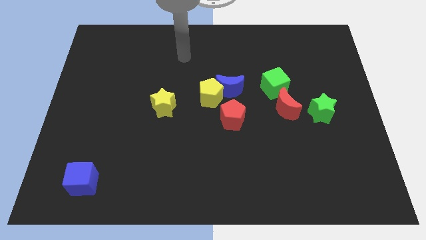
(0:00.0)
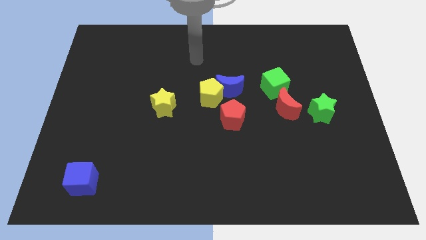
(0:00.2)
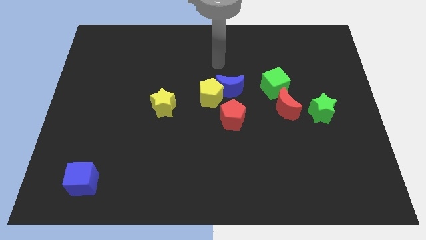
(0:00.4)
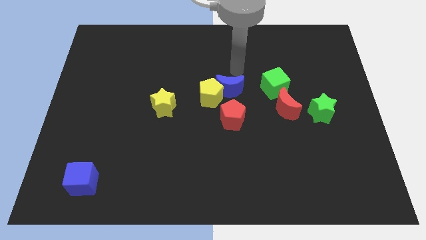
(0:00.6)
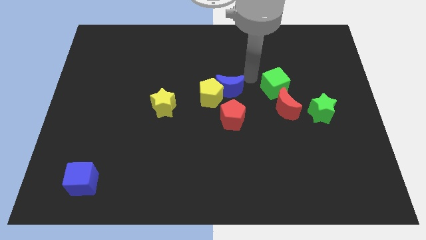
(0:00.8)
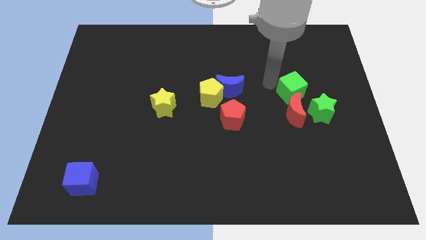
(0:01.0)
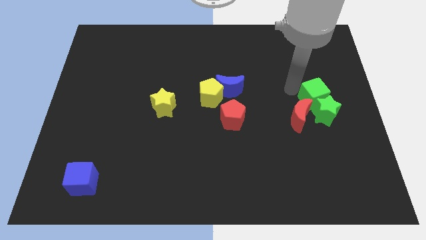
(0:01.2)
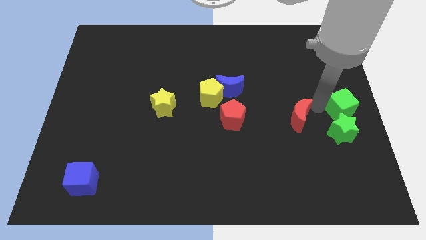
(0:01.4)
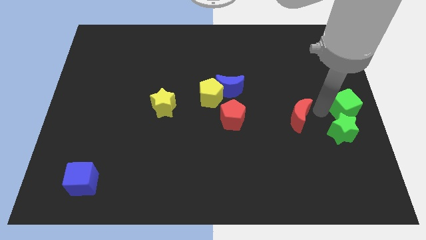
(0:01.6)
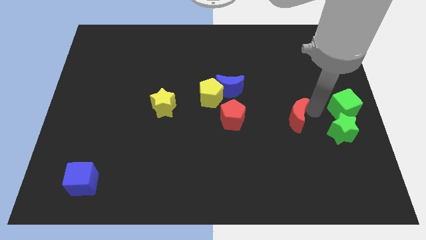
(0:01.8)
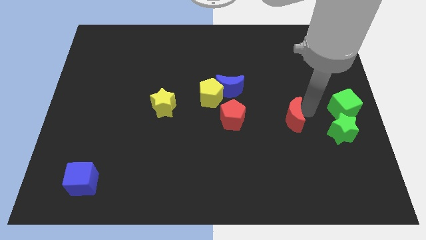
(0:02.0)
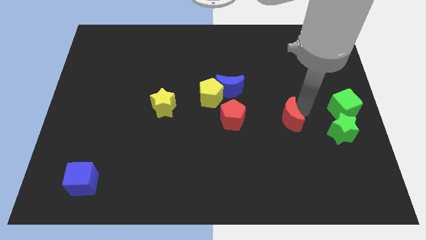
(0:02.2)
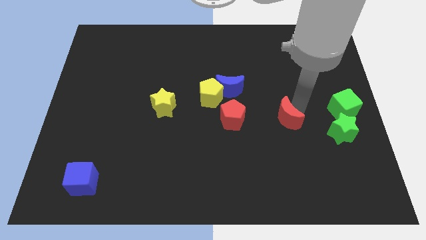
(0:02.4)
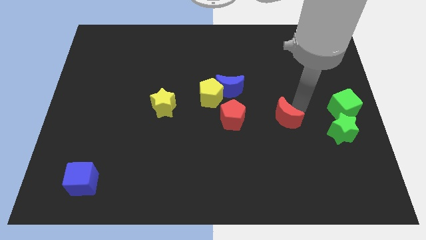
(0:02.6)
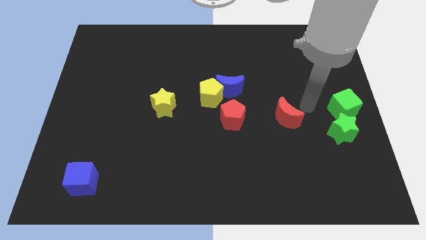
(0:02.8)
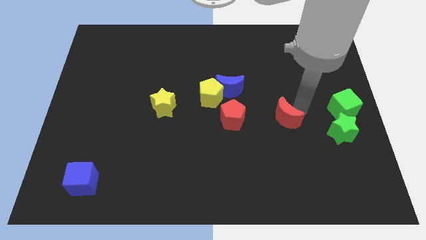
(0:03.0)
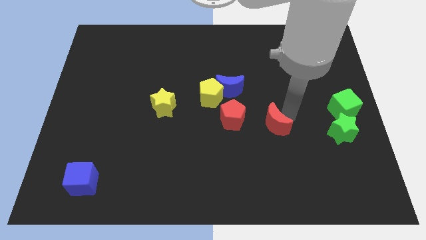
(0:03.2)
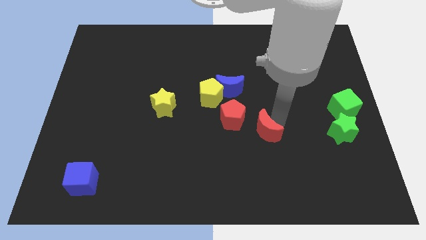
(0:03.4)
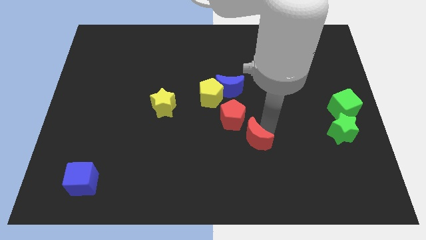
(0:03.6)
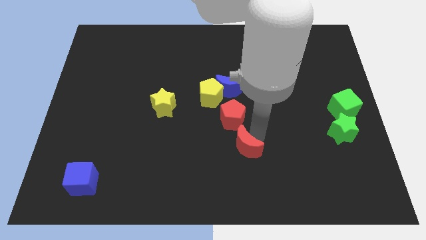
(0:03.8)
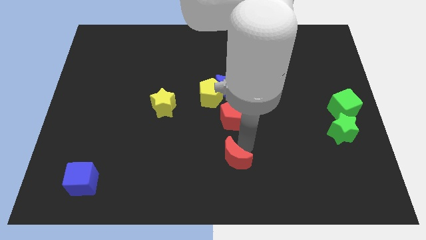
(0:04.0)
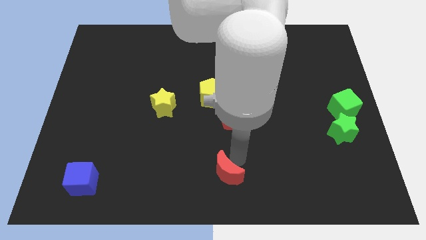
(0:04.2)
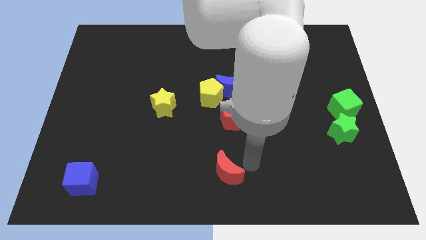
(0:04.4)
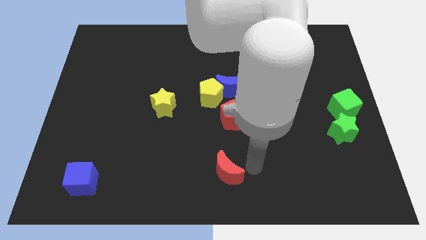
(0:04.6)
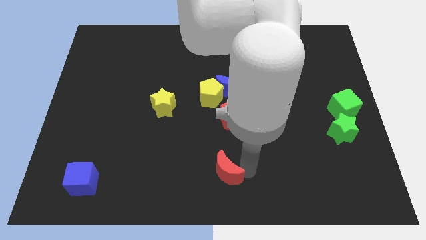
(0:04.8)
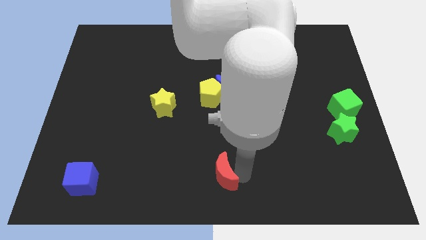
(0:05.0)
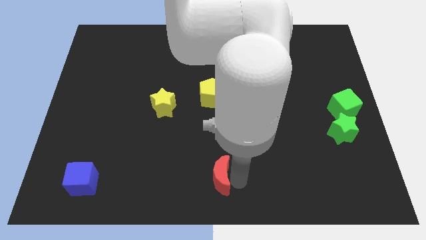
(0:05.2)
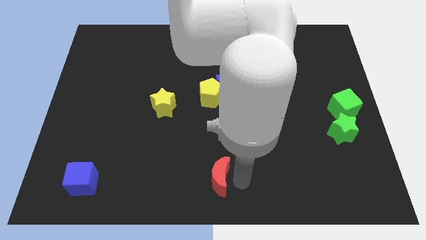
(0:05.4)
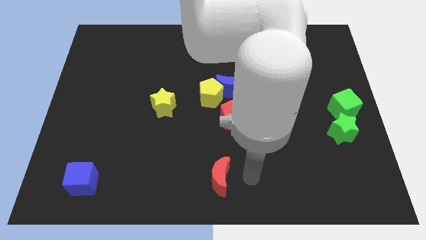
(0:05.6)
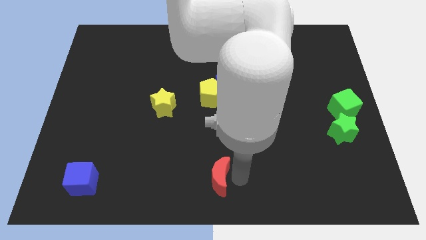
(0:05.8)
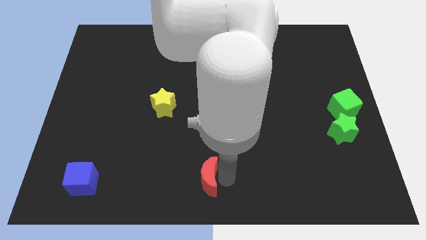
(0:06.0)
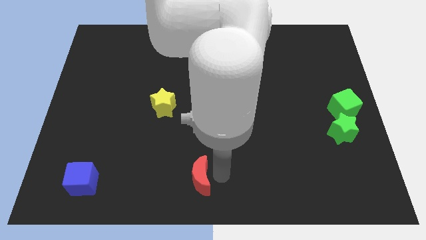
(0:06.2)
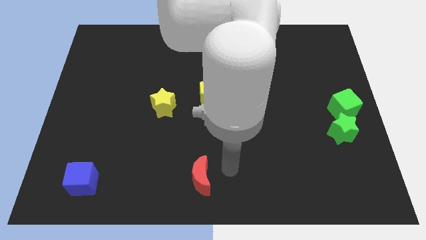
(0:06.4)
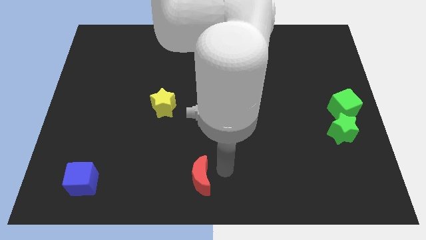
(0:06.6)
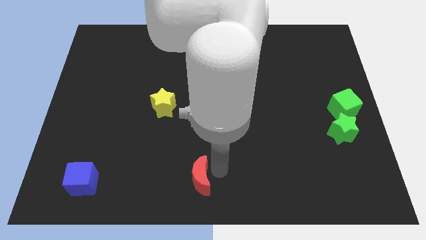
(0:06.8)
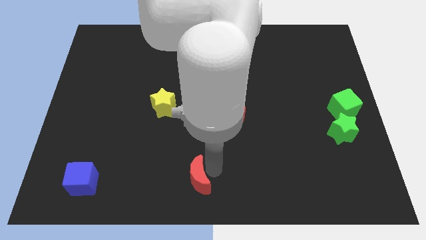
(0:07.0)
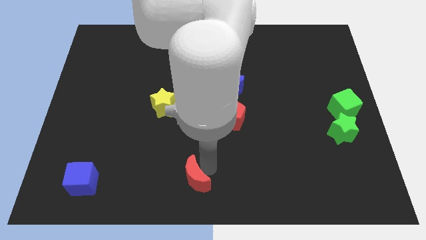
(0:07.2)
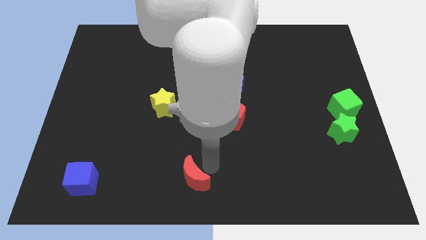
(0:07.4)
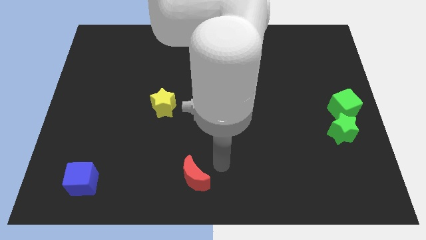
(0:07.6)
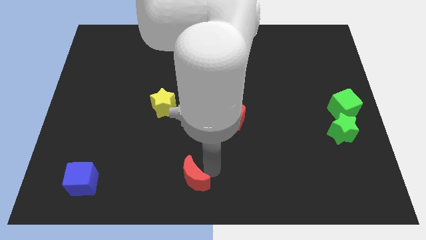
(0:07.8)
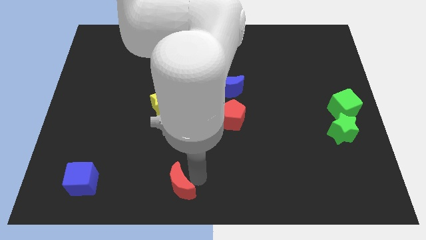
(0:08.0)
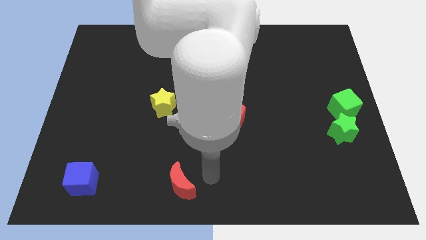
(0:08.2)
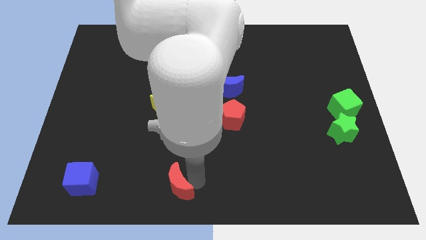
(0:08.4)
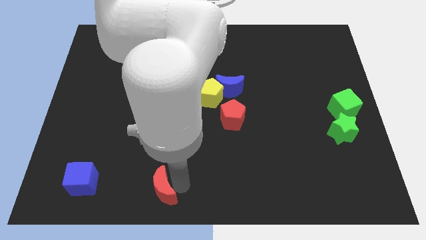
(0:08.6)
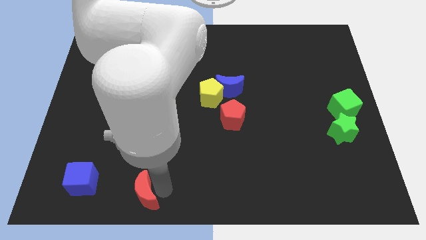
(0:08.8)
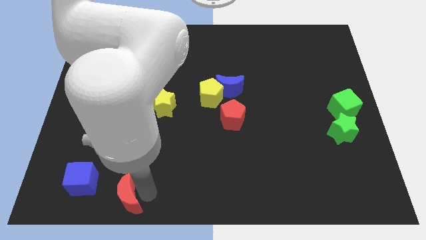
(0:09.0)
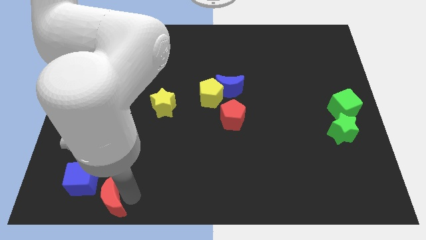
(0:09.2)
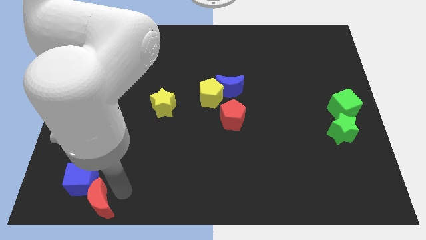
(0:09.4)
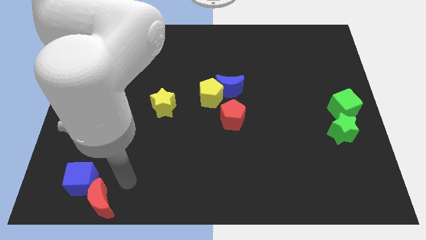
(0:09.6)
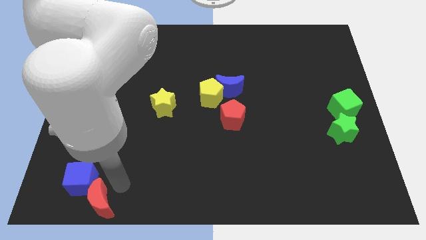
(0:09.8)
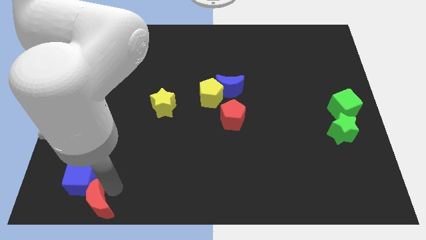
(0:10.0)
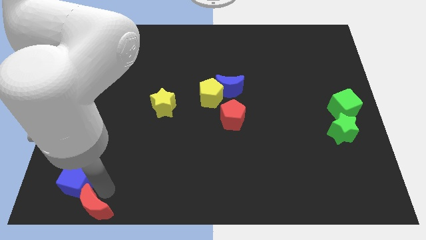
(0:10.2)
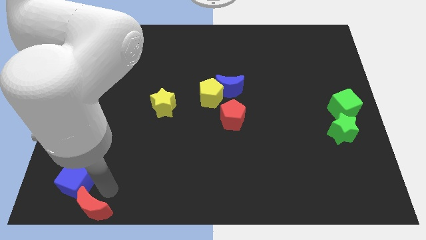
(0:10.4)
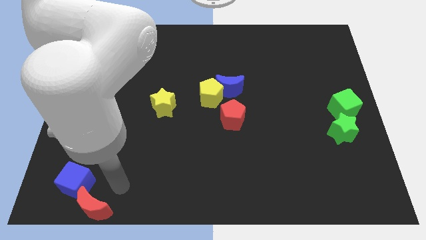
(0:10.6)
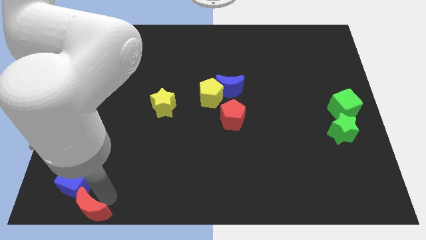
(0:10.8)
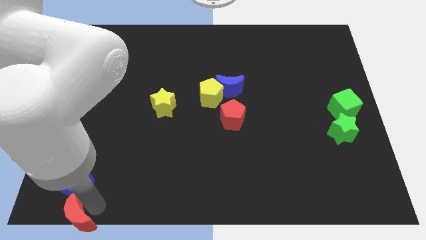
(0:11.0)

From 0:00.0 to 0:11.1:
slide the red moon to the bottom left corner

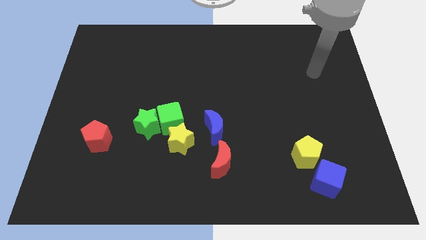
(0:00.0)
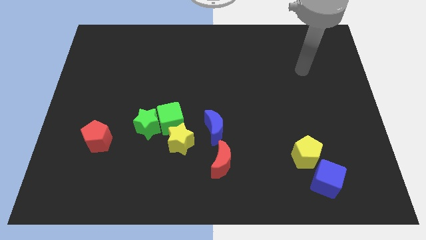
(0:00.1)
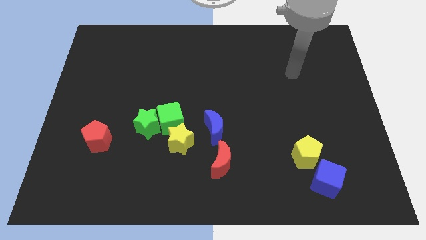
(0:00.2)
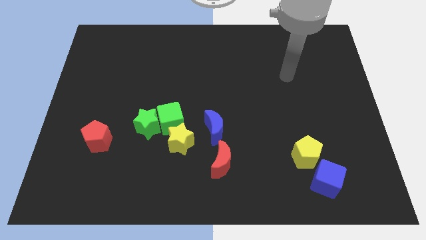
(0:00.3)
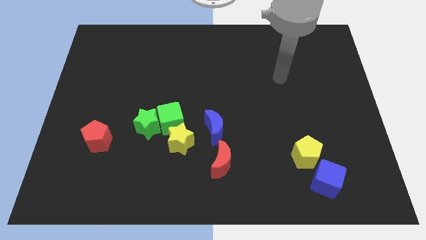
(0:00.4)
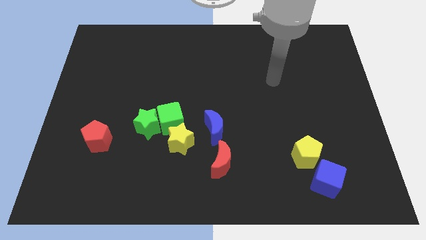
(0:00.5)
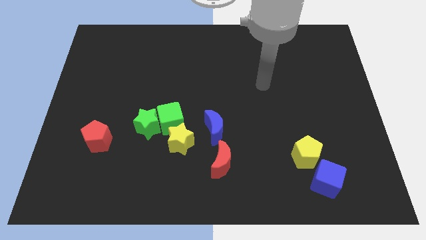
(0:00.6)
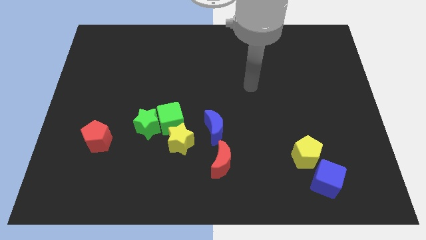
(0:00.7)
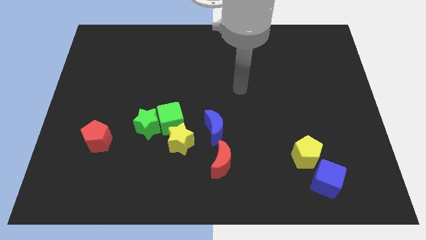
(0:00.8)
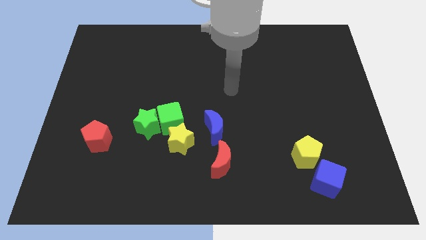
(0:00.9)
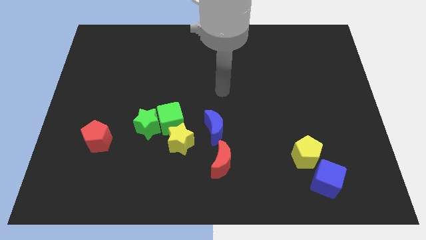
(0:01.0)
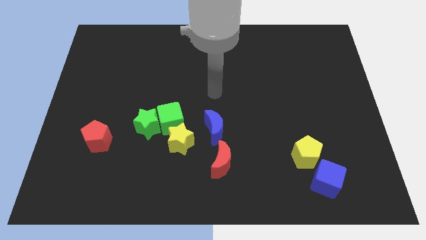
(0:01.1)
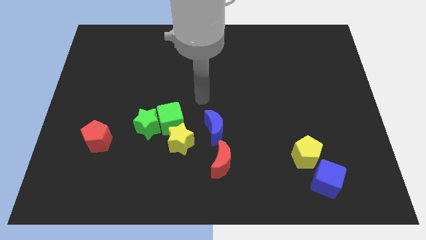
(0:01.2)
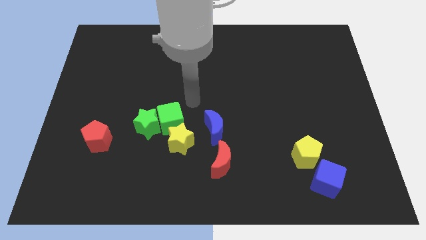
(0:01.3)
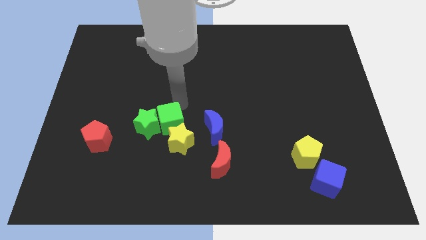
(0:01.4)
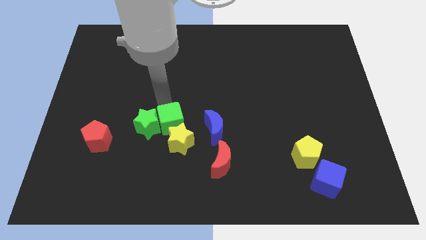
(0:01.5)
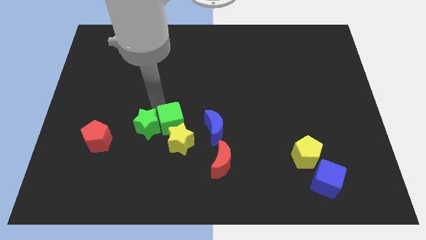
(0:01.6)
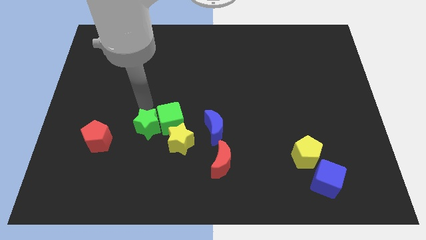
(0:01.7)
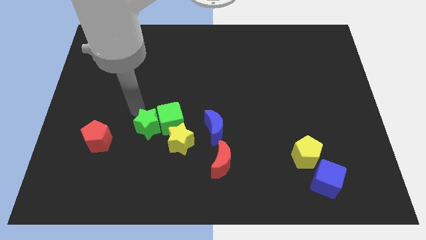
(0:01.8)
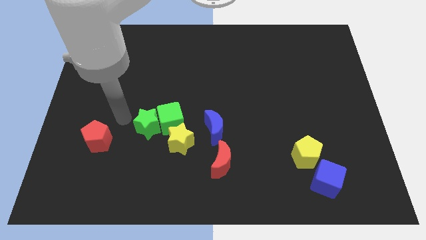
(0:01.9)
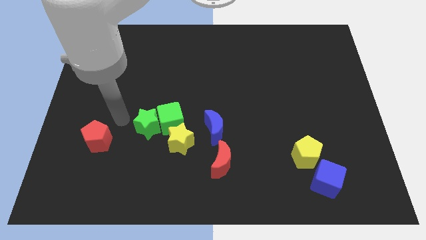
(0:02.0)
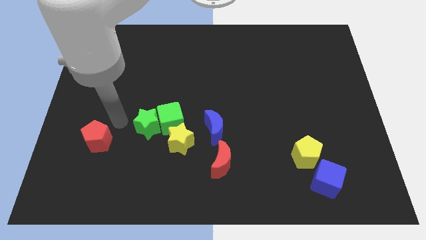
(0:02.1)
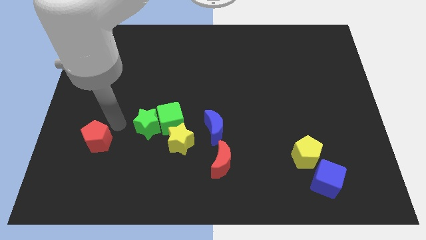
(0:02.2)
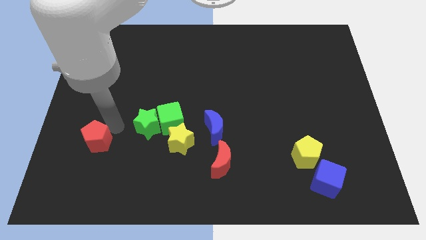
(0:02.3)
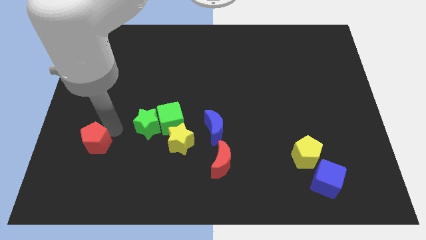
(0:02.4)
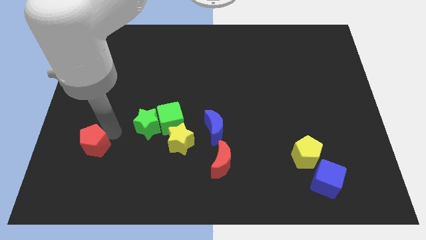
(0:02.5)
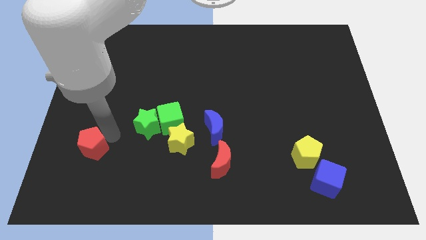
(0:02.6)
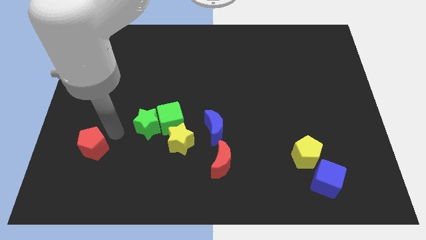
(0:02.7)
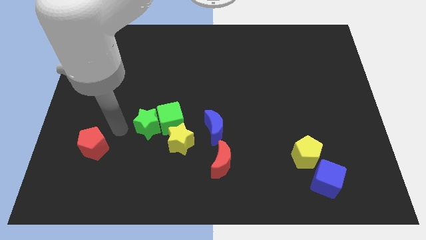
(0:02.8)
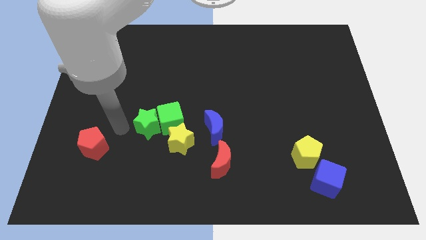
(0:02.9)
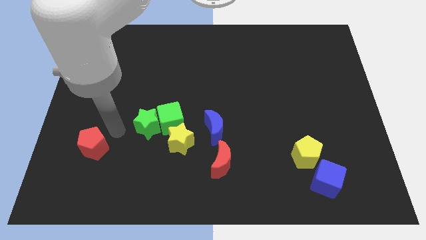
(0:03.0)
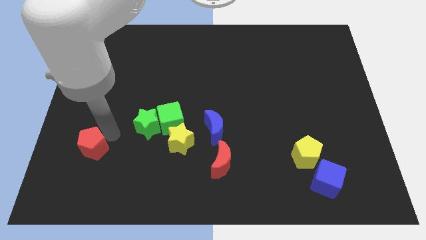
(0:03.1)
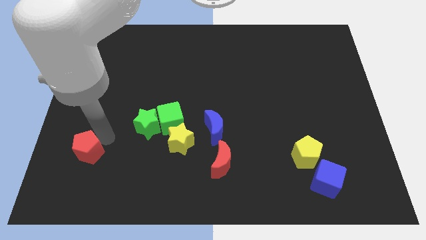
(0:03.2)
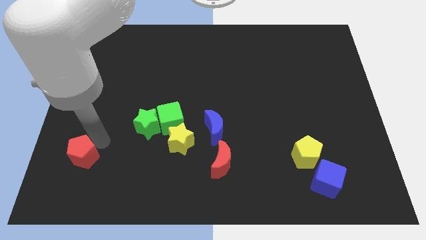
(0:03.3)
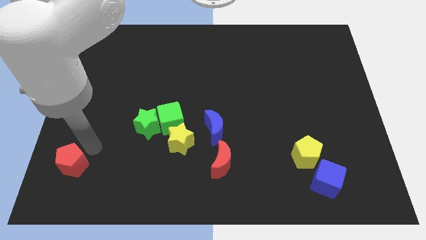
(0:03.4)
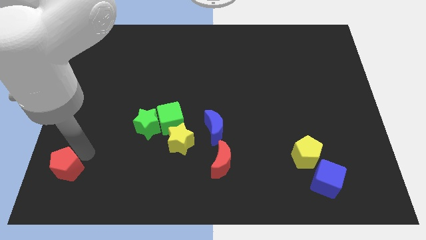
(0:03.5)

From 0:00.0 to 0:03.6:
push the red pentagon to the bottom left of the board
